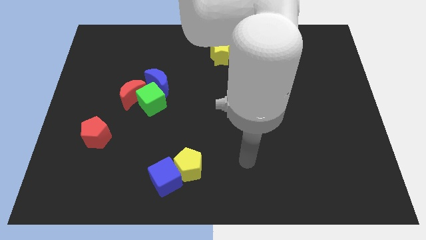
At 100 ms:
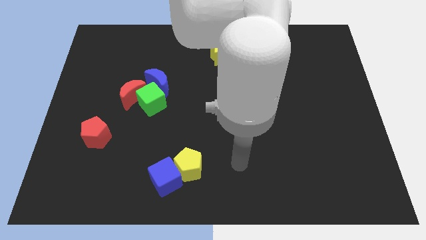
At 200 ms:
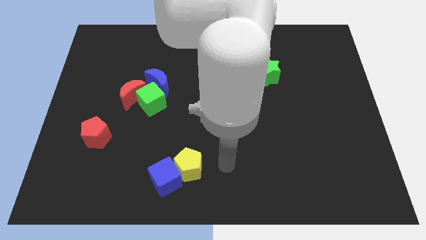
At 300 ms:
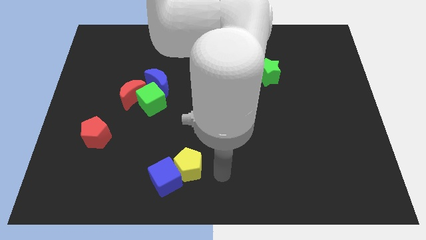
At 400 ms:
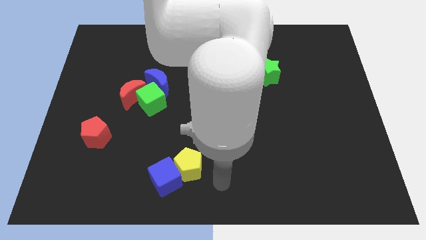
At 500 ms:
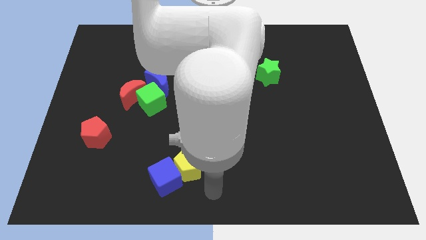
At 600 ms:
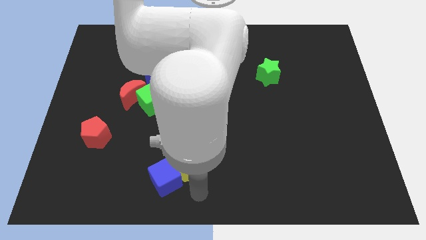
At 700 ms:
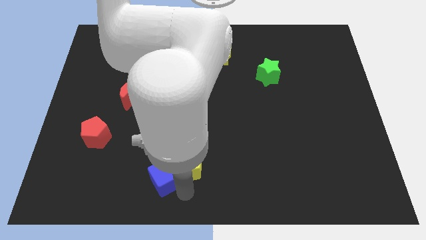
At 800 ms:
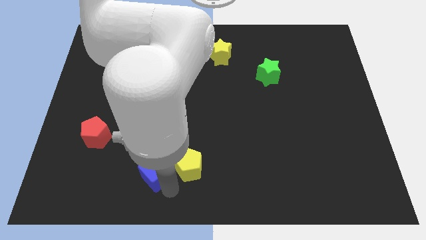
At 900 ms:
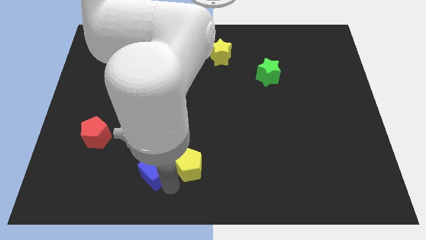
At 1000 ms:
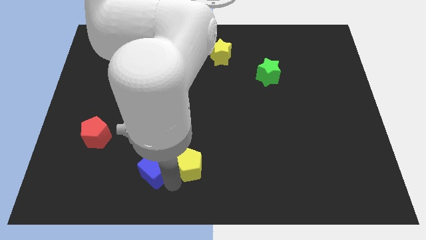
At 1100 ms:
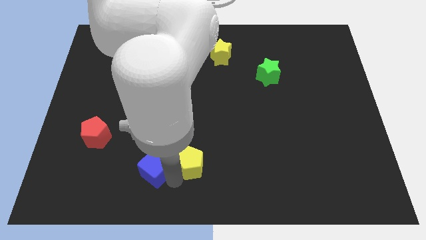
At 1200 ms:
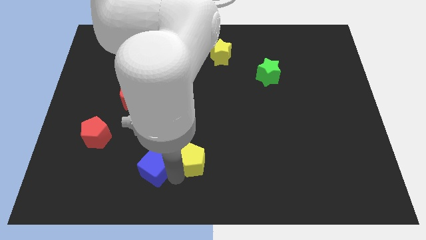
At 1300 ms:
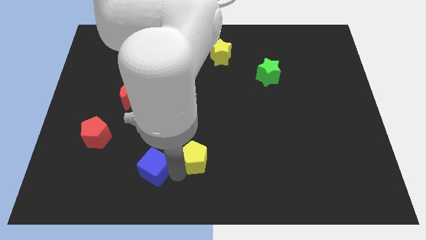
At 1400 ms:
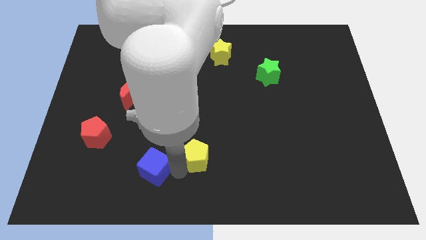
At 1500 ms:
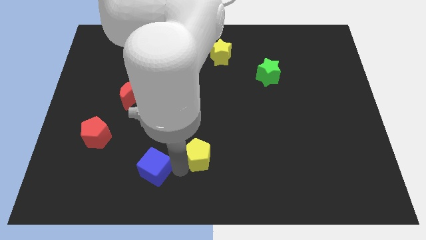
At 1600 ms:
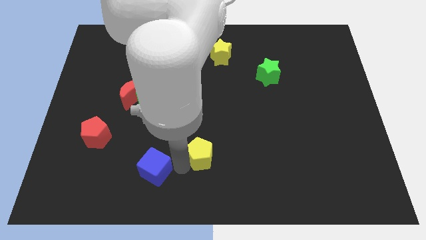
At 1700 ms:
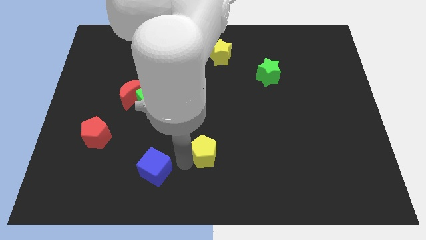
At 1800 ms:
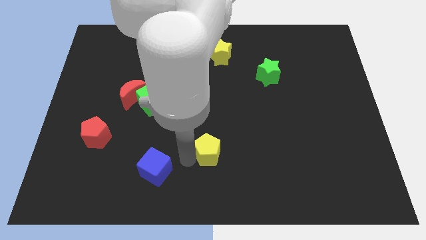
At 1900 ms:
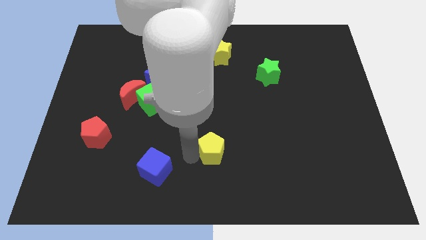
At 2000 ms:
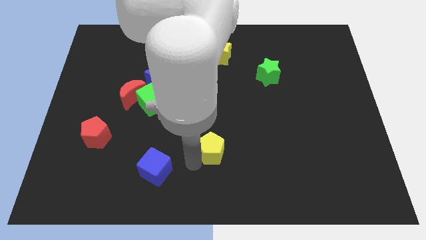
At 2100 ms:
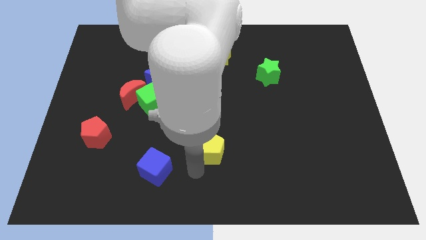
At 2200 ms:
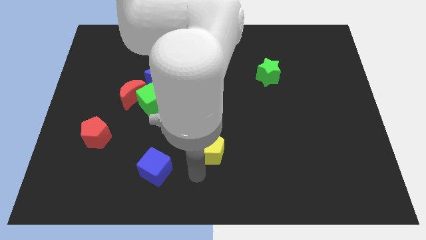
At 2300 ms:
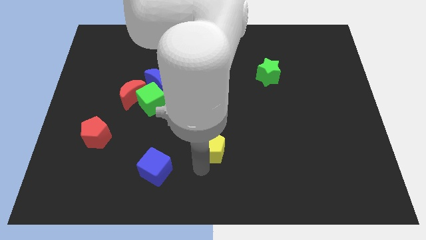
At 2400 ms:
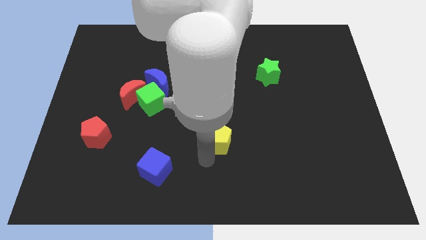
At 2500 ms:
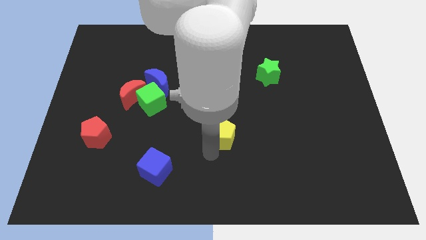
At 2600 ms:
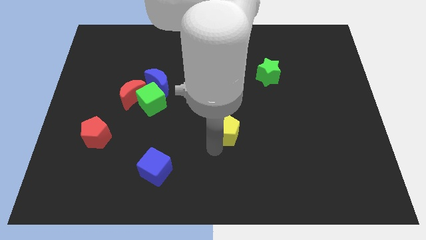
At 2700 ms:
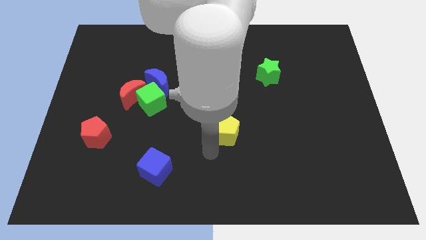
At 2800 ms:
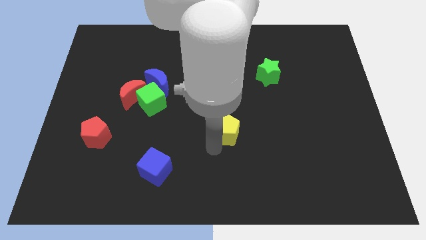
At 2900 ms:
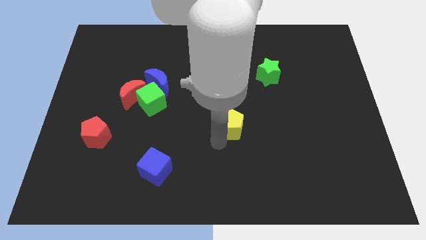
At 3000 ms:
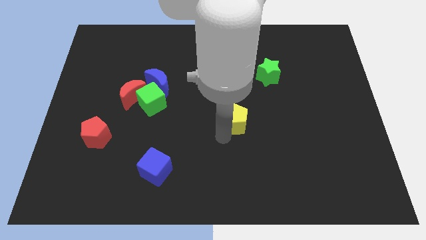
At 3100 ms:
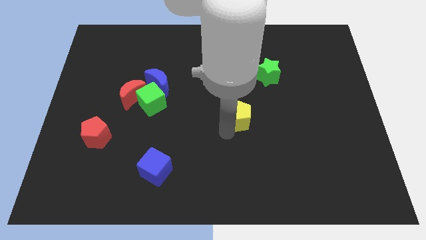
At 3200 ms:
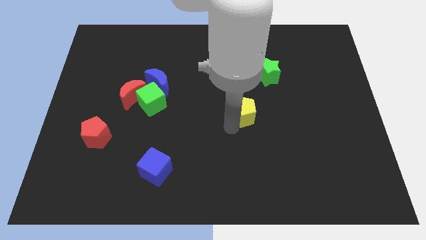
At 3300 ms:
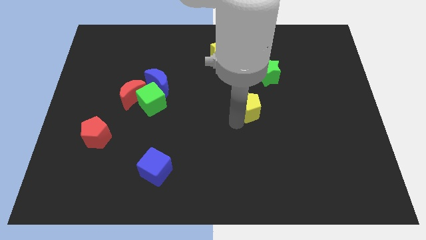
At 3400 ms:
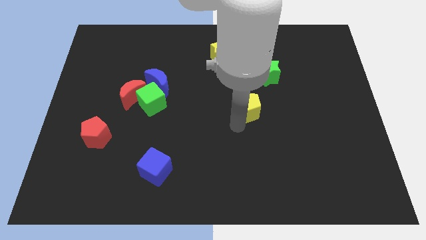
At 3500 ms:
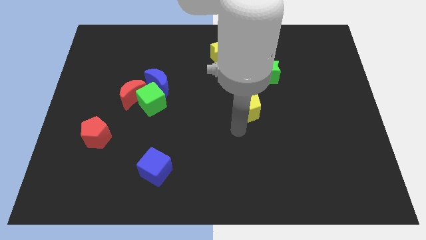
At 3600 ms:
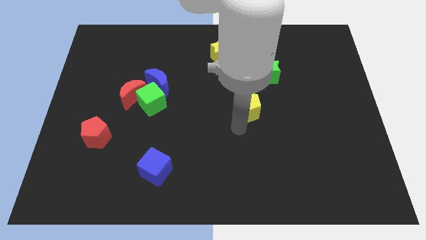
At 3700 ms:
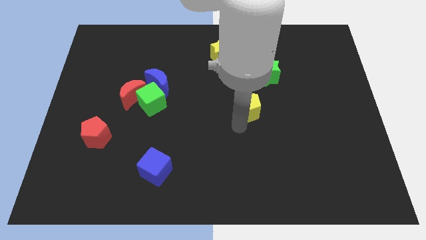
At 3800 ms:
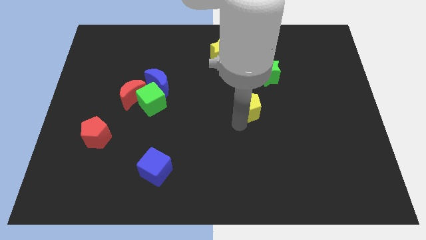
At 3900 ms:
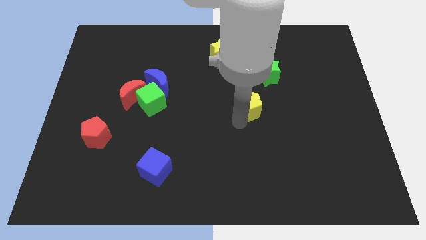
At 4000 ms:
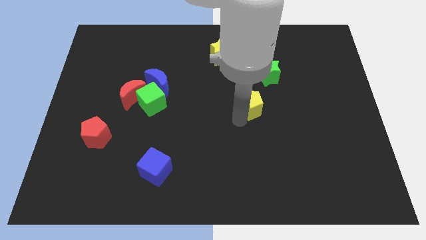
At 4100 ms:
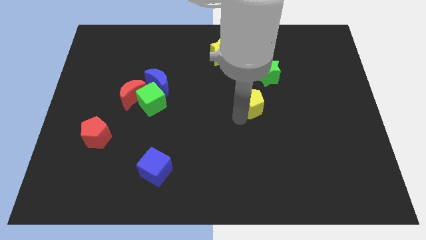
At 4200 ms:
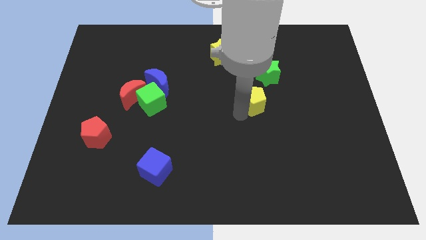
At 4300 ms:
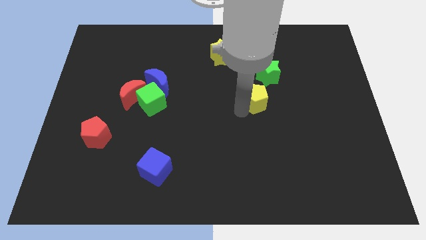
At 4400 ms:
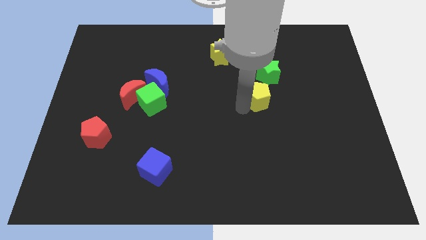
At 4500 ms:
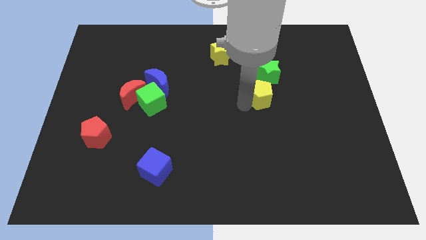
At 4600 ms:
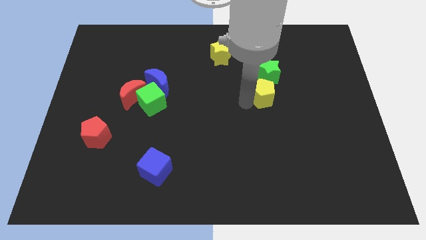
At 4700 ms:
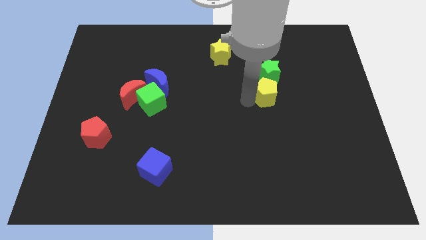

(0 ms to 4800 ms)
move the yellow pentagon to the green star

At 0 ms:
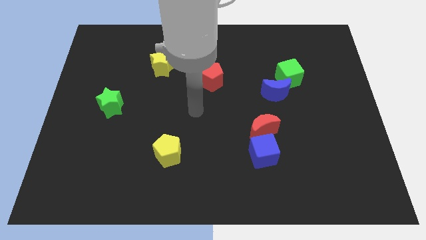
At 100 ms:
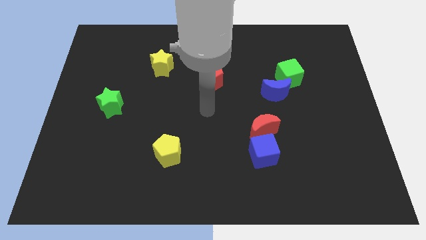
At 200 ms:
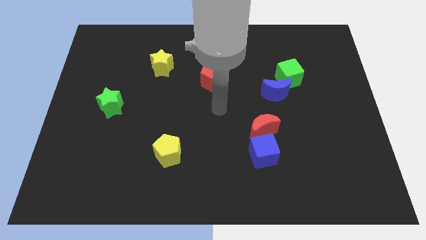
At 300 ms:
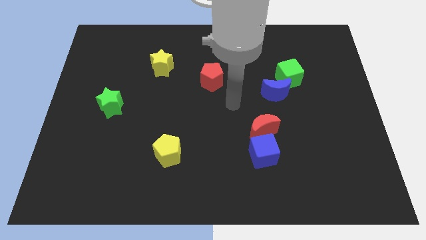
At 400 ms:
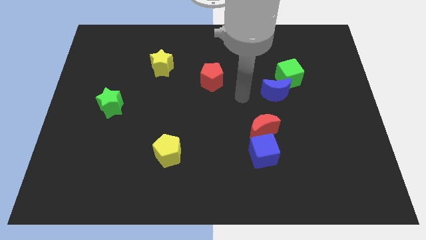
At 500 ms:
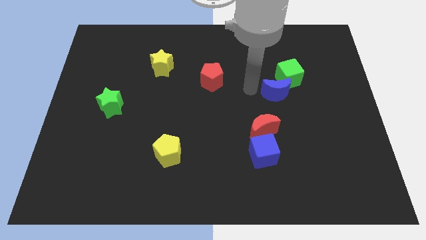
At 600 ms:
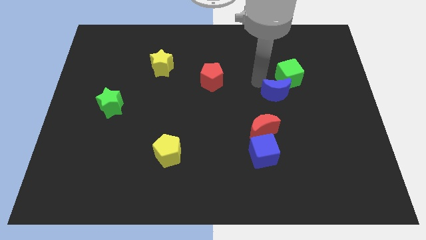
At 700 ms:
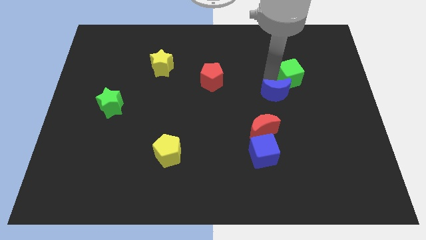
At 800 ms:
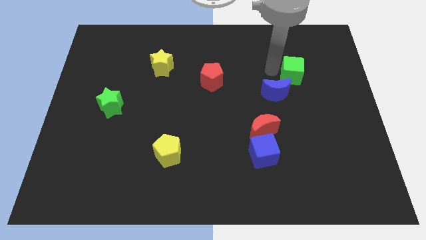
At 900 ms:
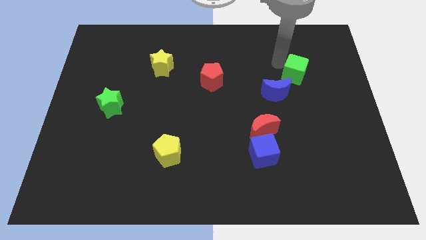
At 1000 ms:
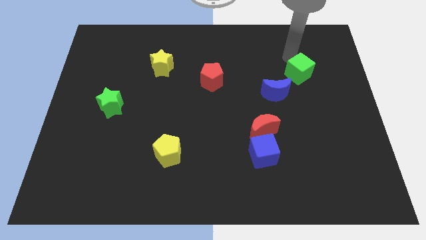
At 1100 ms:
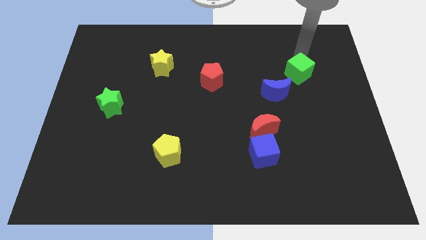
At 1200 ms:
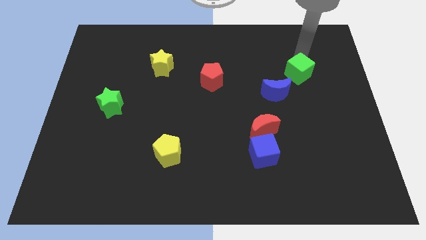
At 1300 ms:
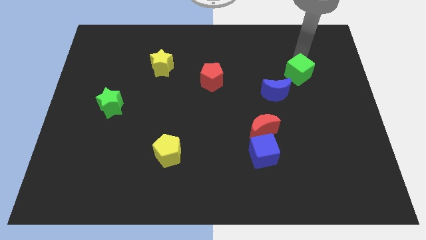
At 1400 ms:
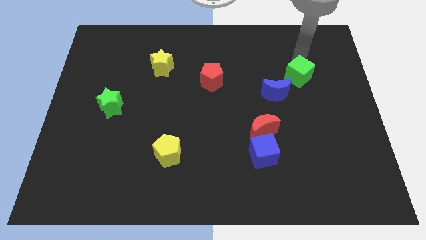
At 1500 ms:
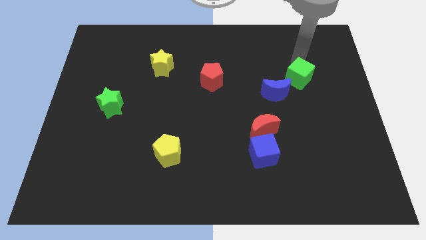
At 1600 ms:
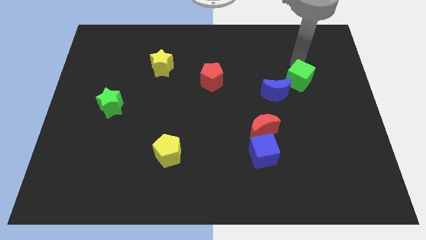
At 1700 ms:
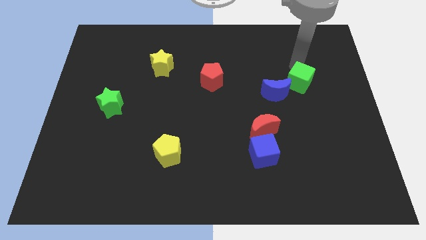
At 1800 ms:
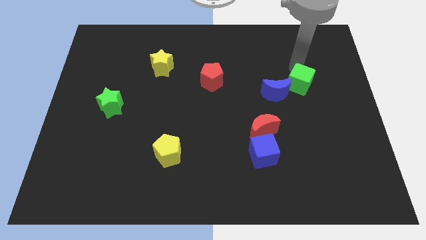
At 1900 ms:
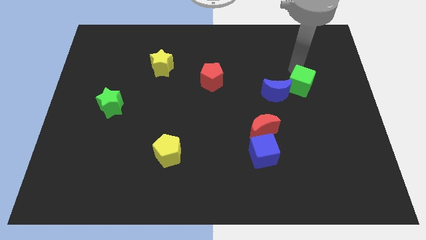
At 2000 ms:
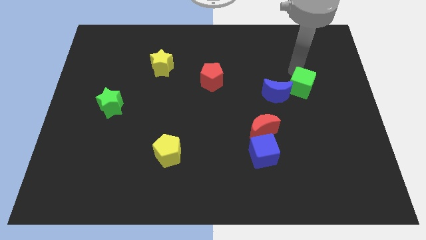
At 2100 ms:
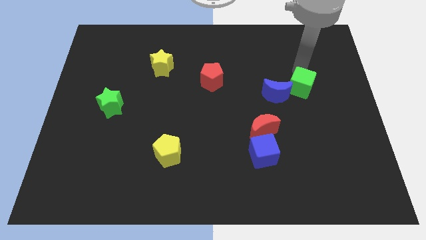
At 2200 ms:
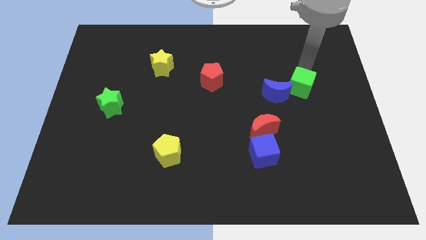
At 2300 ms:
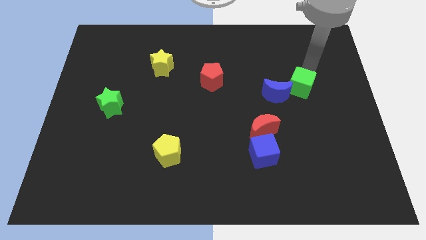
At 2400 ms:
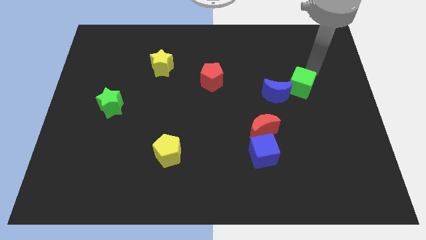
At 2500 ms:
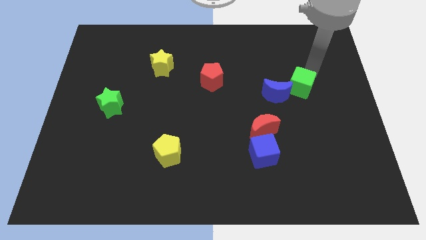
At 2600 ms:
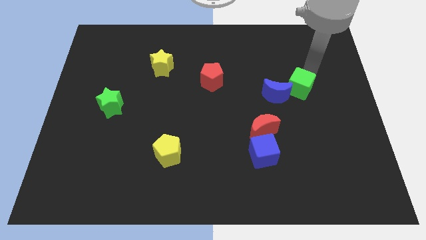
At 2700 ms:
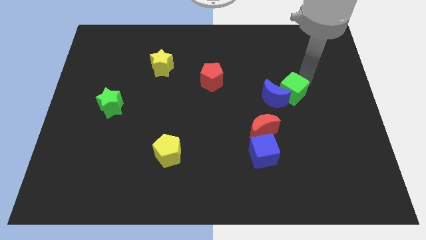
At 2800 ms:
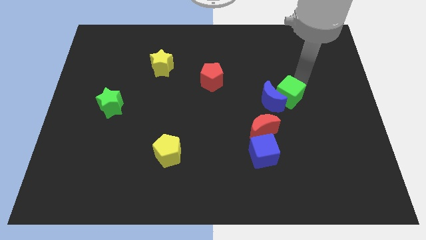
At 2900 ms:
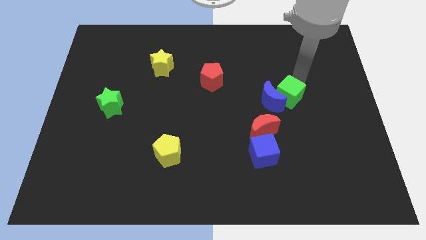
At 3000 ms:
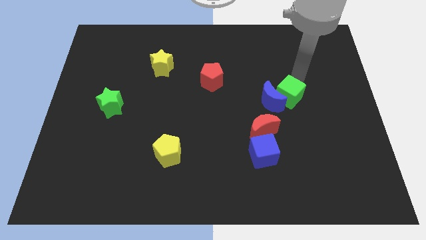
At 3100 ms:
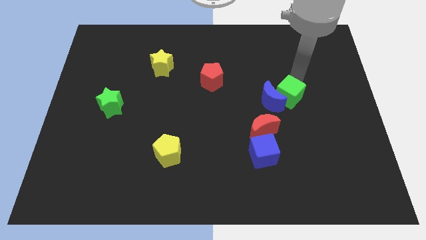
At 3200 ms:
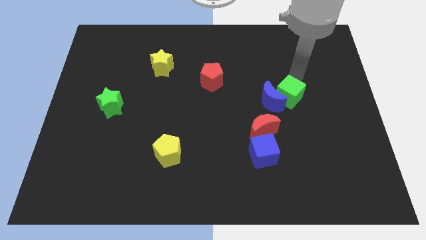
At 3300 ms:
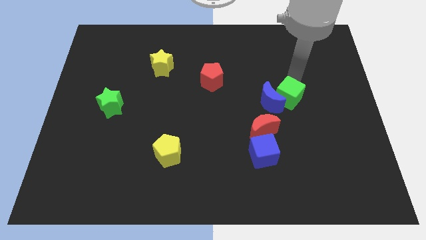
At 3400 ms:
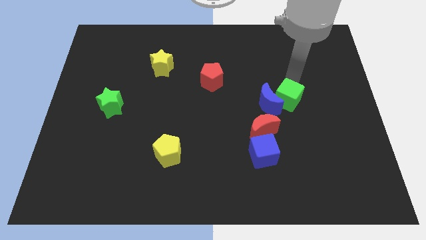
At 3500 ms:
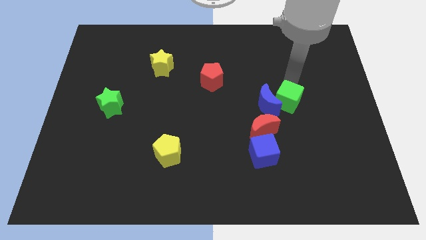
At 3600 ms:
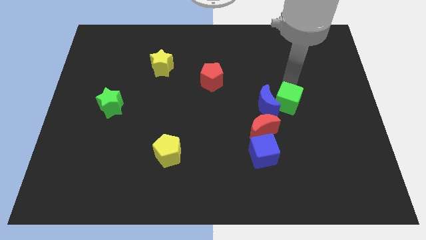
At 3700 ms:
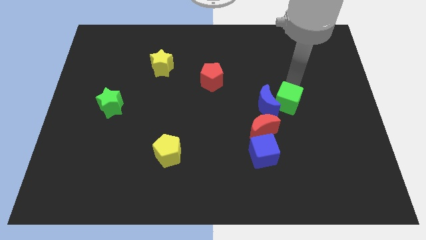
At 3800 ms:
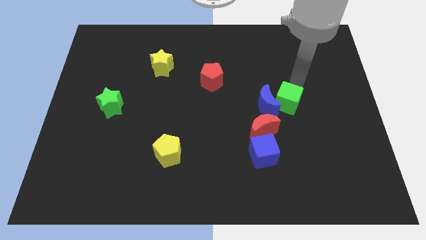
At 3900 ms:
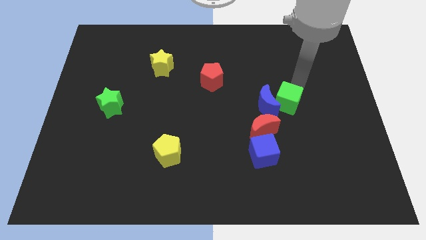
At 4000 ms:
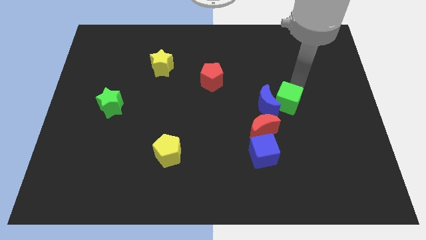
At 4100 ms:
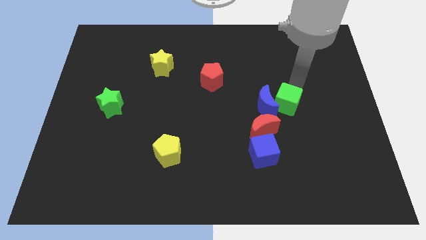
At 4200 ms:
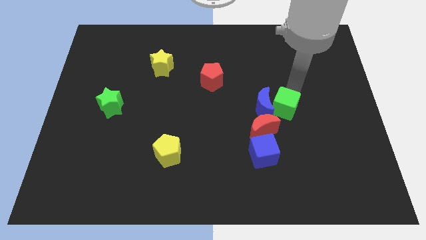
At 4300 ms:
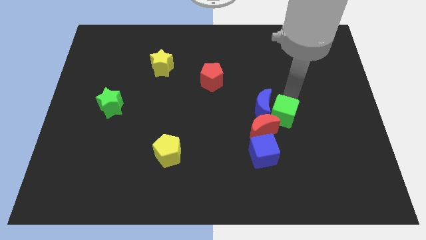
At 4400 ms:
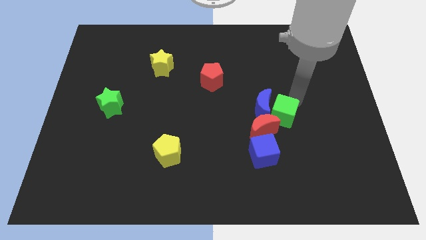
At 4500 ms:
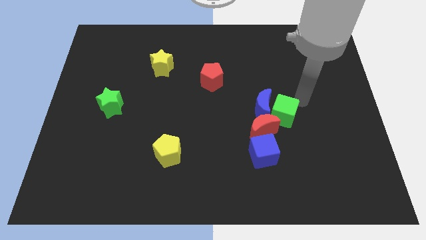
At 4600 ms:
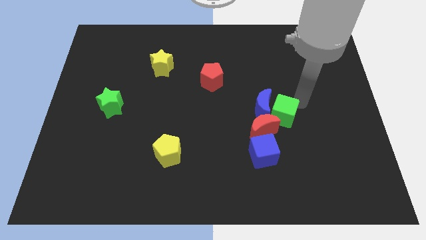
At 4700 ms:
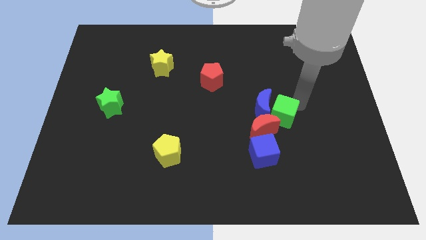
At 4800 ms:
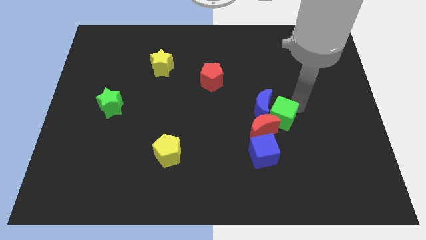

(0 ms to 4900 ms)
slide the green cube next to the red moon
